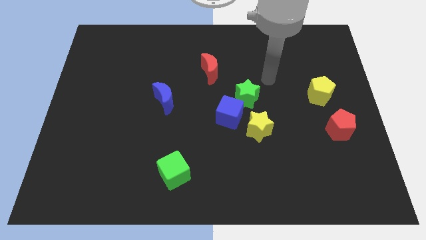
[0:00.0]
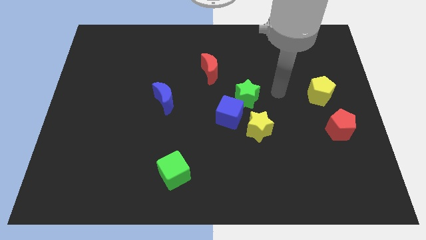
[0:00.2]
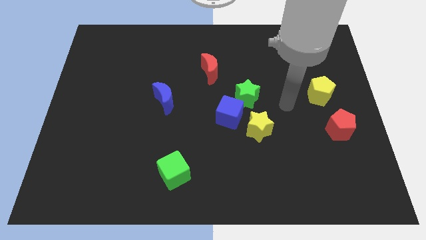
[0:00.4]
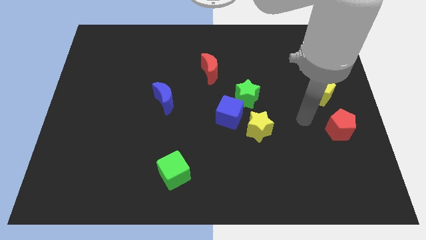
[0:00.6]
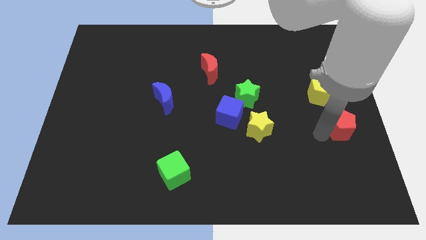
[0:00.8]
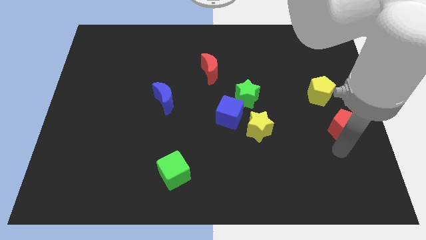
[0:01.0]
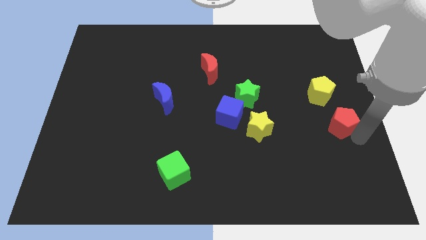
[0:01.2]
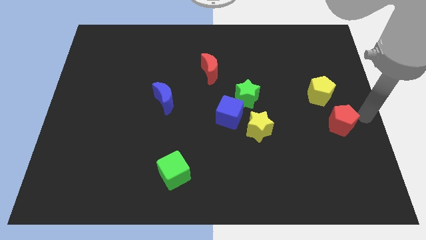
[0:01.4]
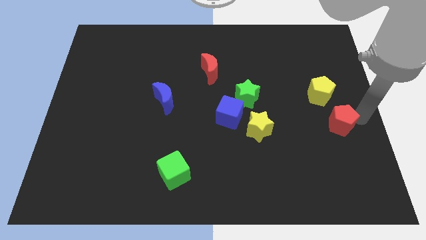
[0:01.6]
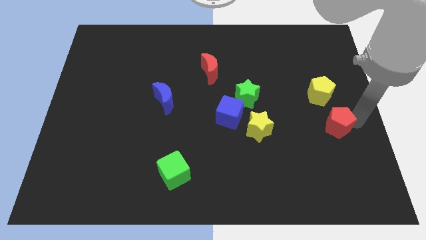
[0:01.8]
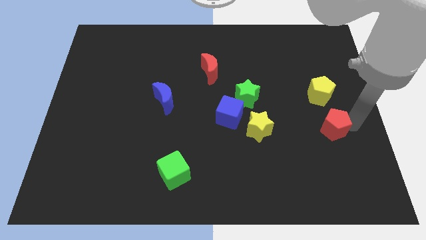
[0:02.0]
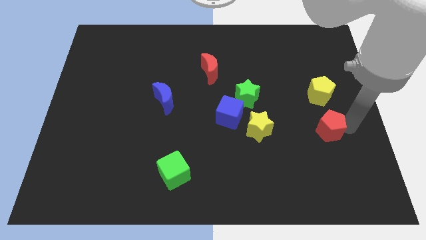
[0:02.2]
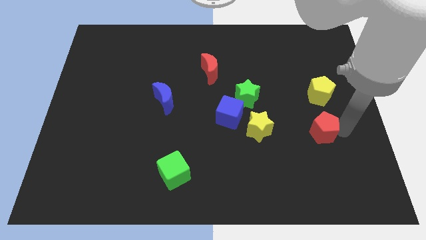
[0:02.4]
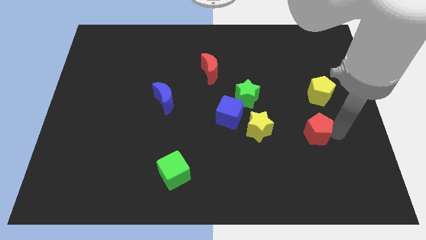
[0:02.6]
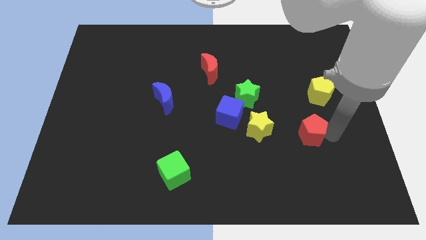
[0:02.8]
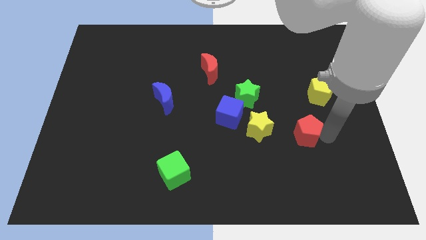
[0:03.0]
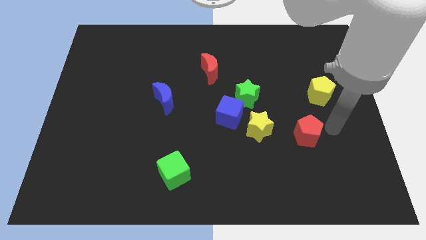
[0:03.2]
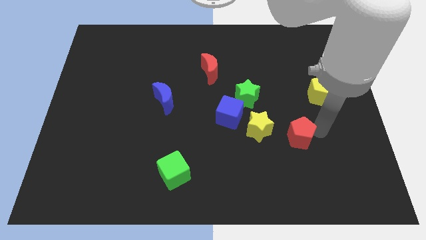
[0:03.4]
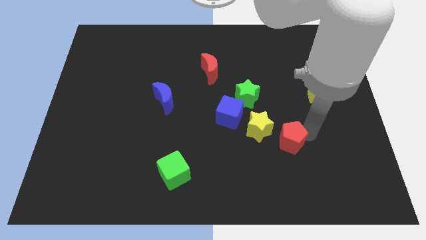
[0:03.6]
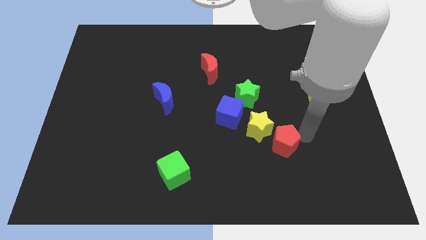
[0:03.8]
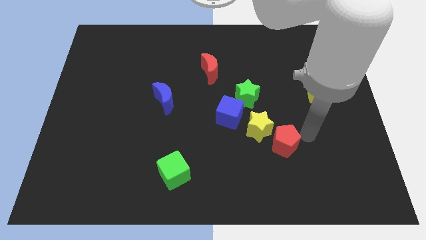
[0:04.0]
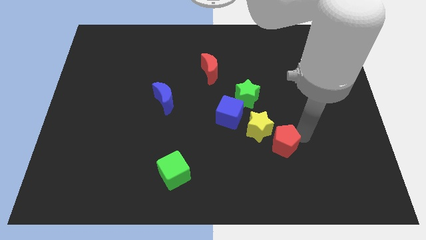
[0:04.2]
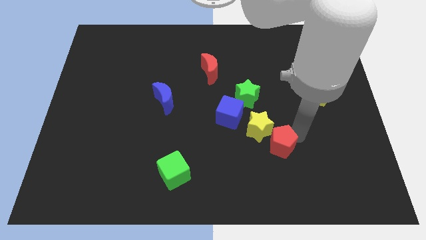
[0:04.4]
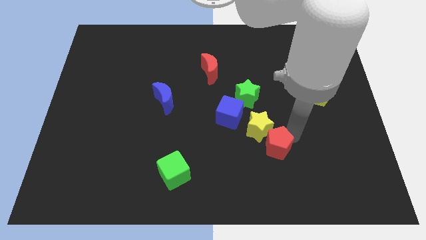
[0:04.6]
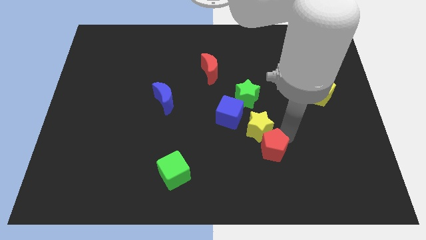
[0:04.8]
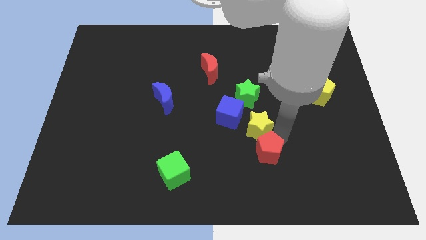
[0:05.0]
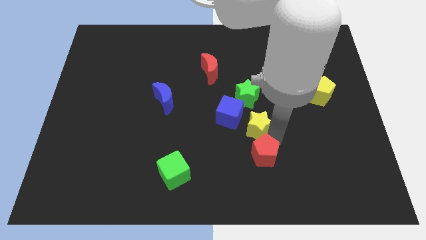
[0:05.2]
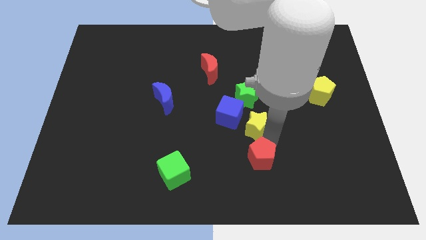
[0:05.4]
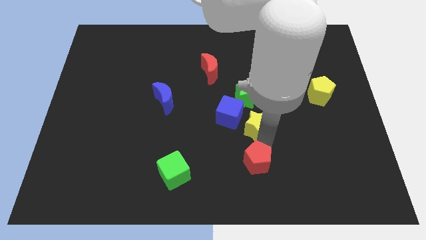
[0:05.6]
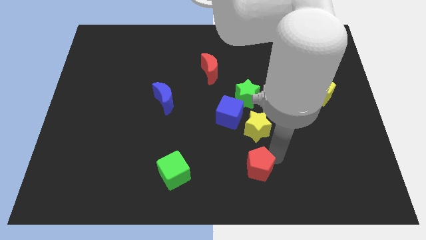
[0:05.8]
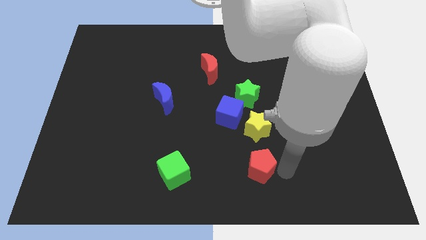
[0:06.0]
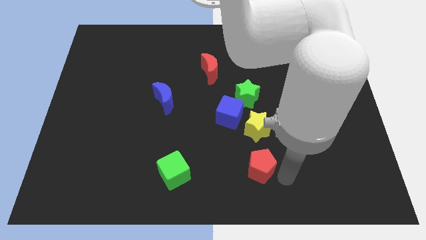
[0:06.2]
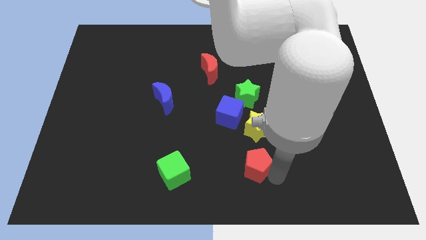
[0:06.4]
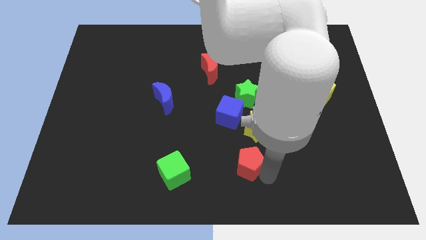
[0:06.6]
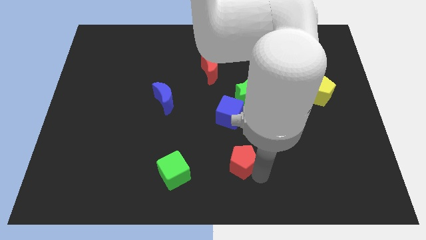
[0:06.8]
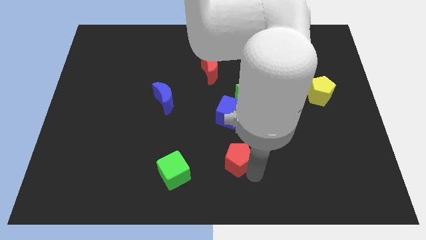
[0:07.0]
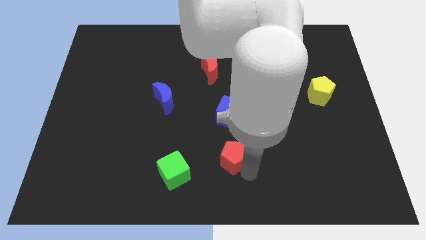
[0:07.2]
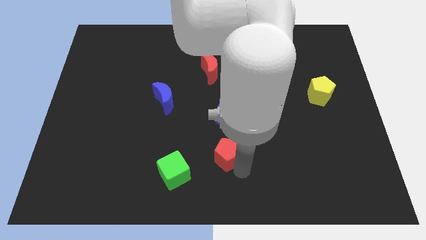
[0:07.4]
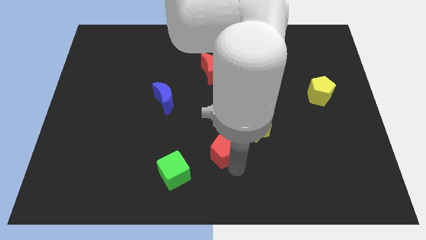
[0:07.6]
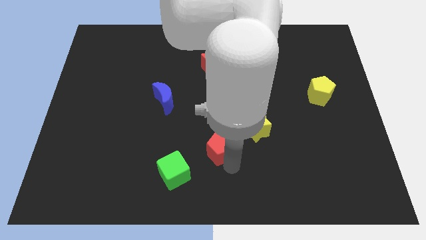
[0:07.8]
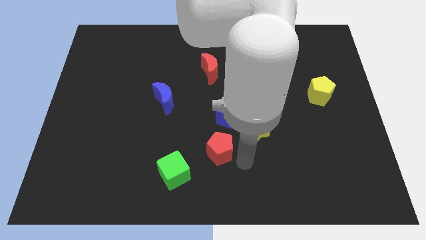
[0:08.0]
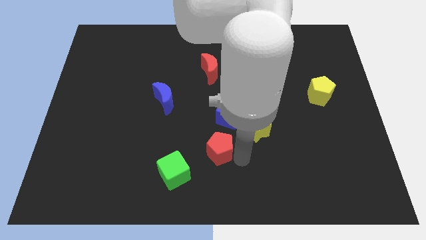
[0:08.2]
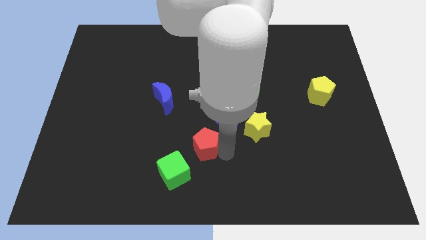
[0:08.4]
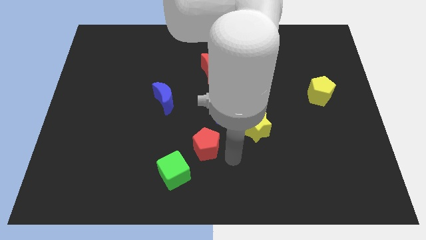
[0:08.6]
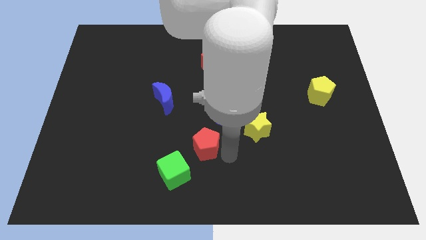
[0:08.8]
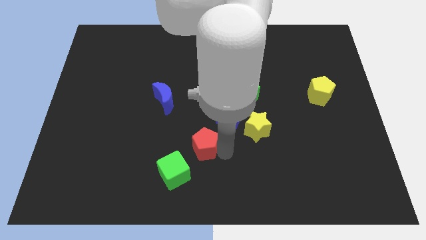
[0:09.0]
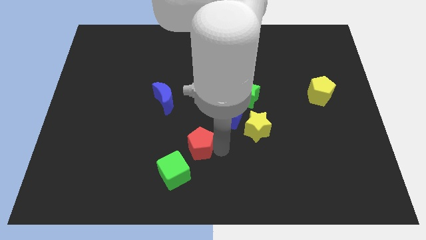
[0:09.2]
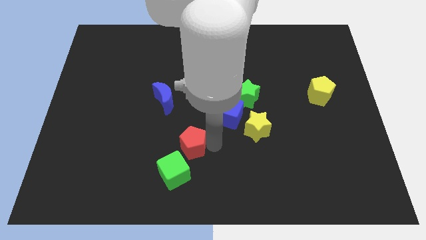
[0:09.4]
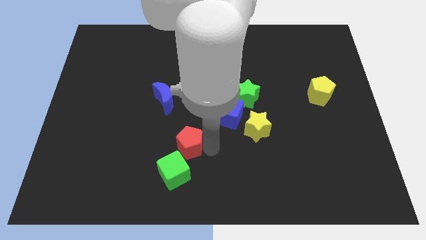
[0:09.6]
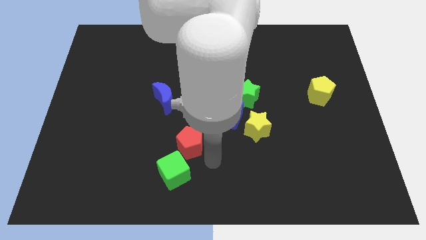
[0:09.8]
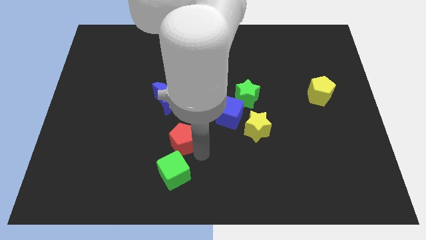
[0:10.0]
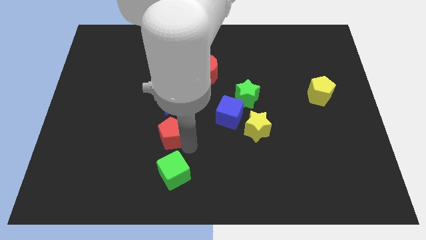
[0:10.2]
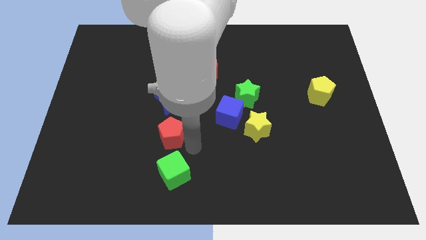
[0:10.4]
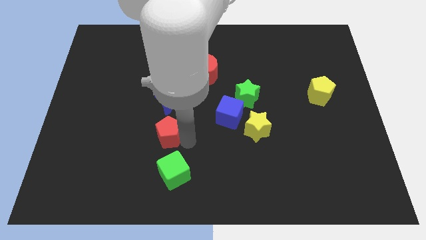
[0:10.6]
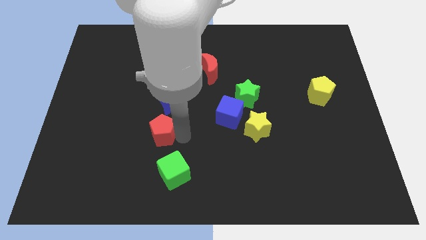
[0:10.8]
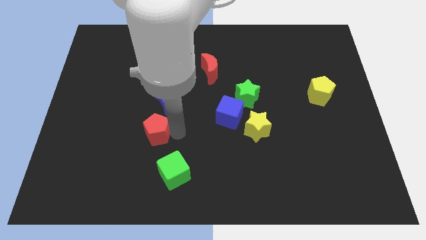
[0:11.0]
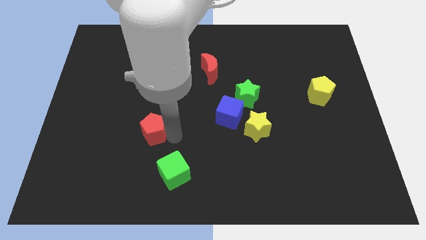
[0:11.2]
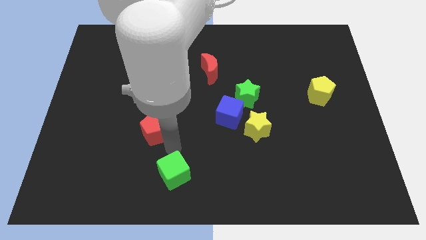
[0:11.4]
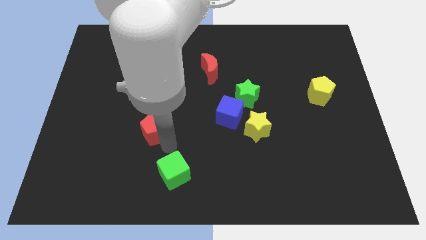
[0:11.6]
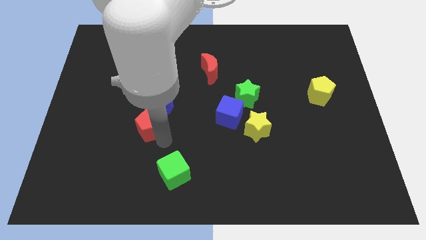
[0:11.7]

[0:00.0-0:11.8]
move the red pentagon diagonally down and to the left of the blue moon

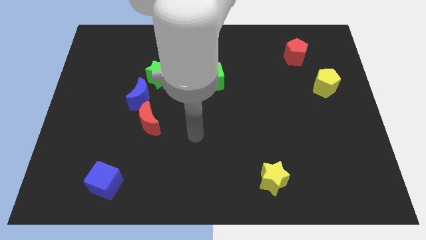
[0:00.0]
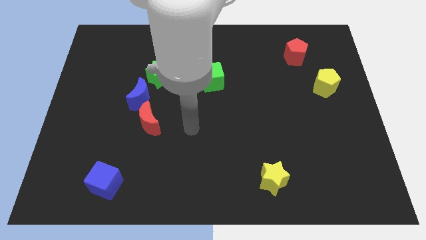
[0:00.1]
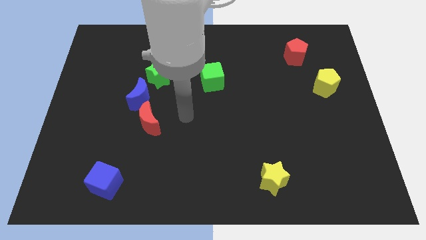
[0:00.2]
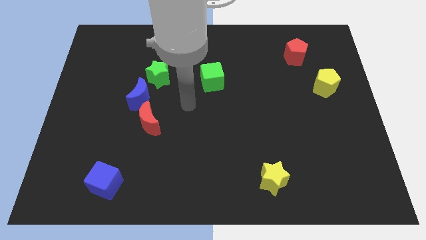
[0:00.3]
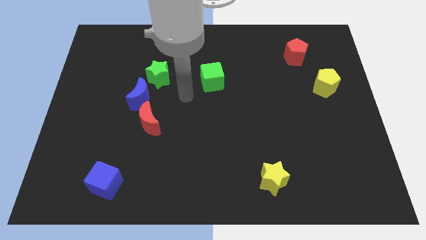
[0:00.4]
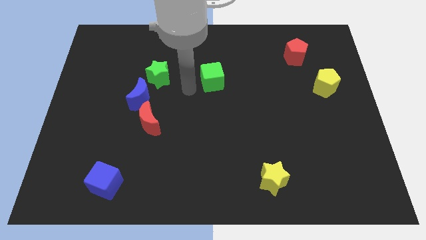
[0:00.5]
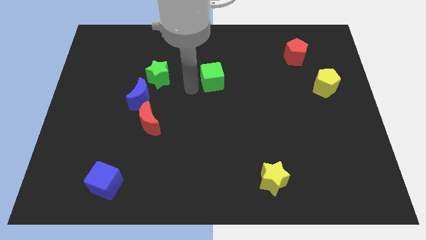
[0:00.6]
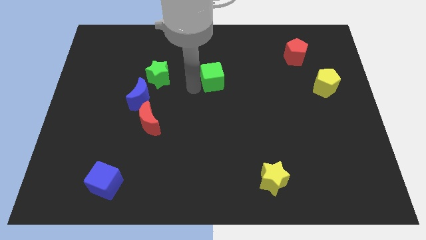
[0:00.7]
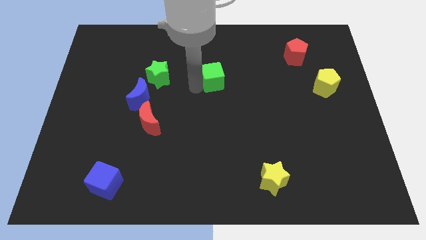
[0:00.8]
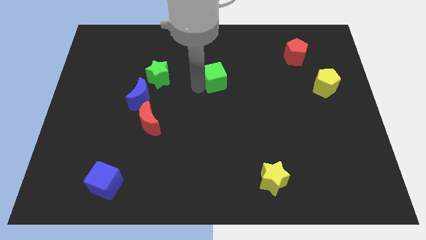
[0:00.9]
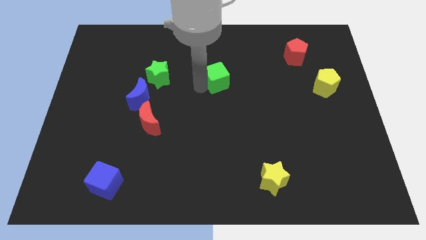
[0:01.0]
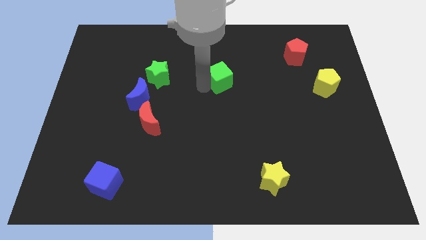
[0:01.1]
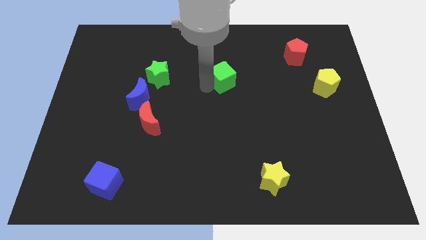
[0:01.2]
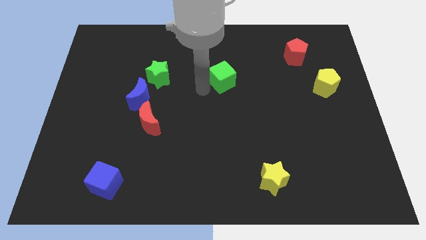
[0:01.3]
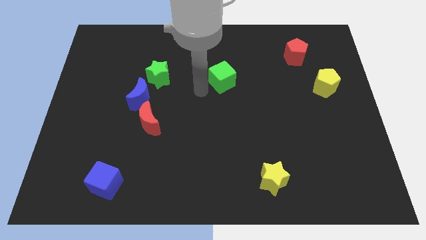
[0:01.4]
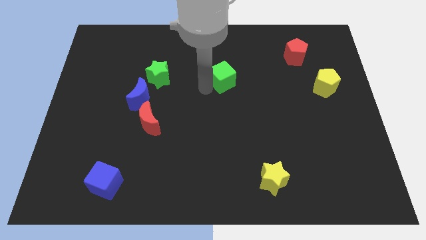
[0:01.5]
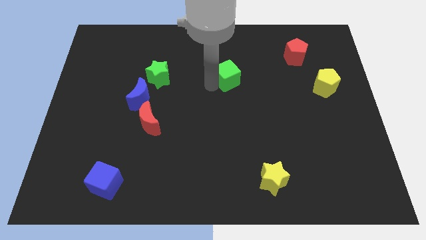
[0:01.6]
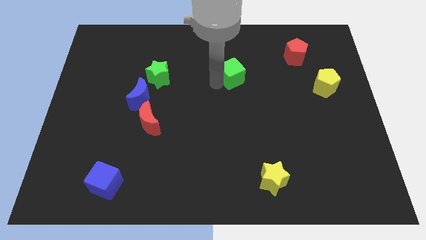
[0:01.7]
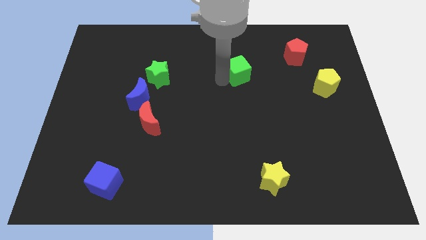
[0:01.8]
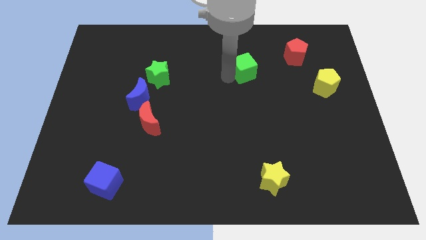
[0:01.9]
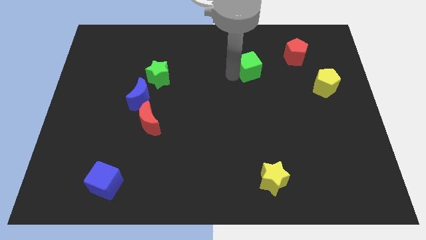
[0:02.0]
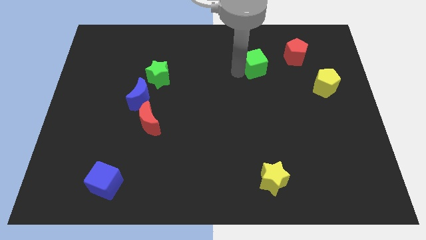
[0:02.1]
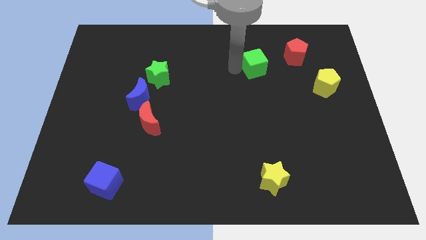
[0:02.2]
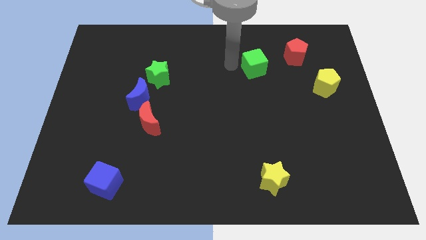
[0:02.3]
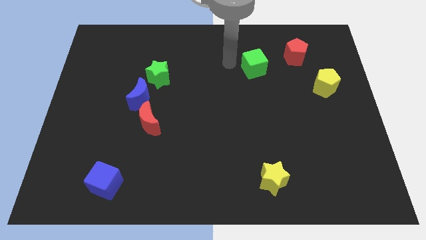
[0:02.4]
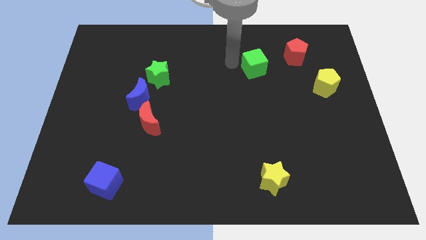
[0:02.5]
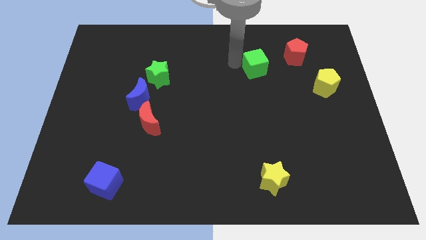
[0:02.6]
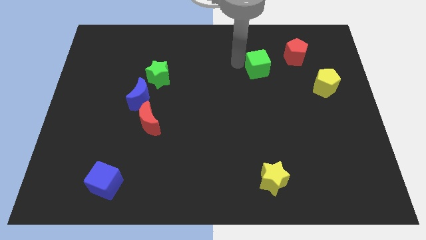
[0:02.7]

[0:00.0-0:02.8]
move the green cube to the bottom left of the red pentagon
